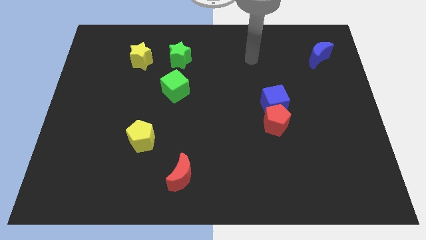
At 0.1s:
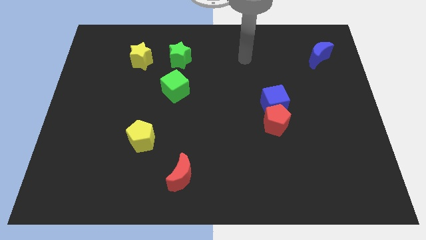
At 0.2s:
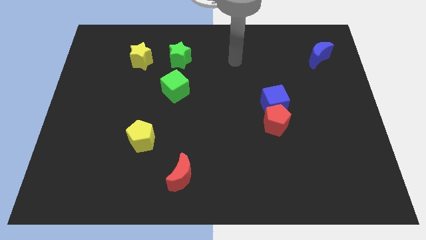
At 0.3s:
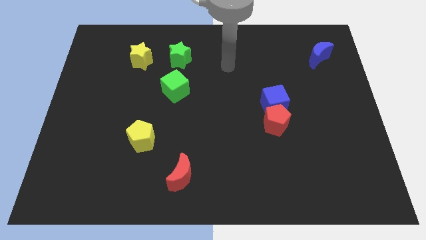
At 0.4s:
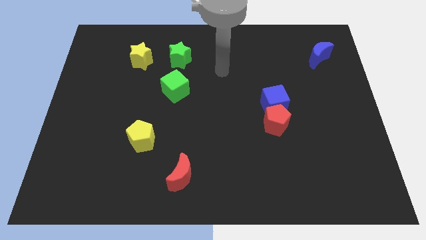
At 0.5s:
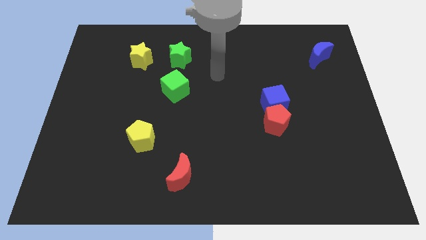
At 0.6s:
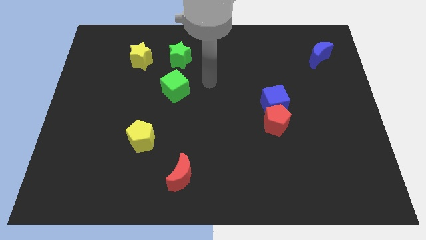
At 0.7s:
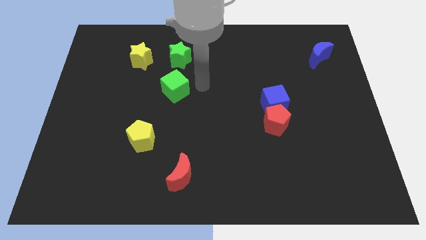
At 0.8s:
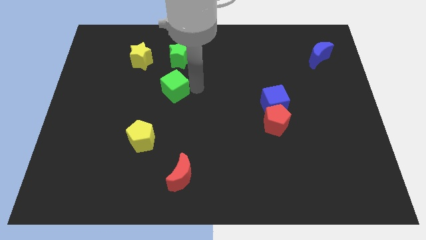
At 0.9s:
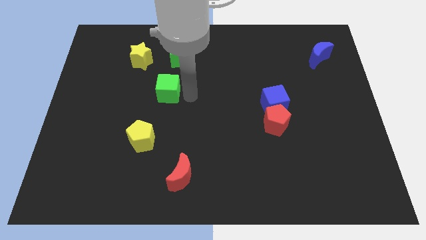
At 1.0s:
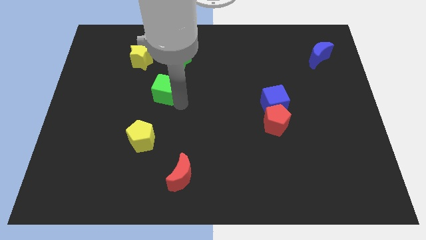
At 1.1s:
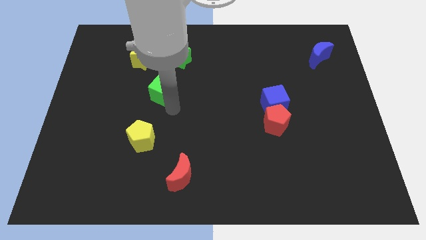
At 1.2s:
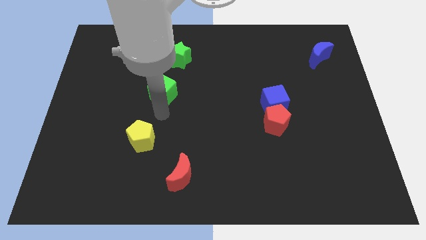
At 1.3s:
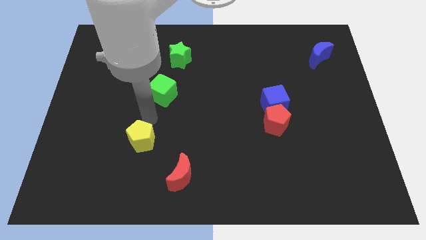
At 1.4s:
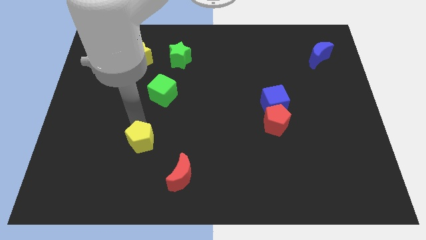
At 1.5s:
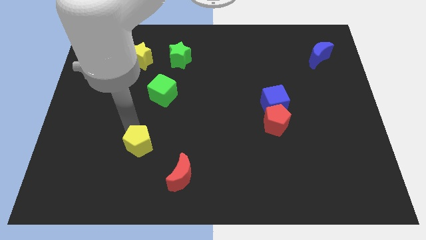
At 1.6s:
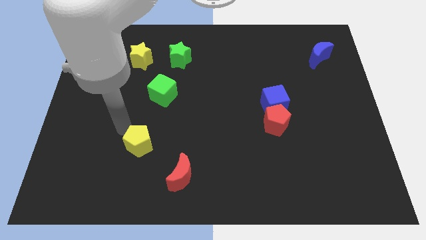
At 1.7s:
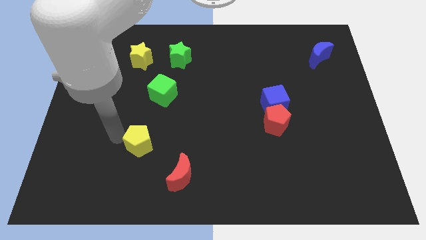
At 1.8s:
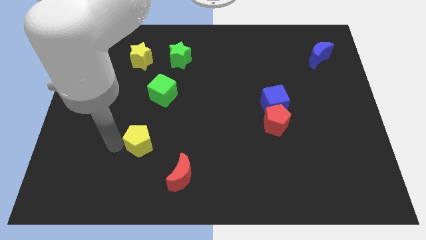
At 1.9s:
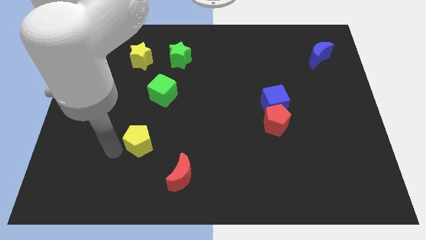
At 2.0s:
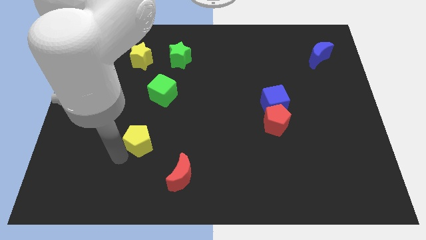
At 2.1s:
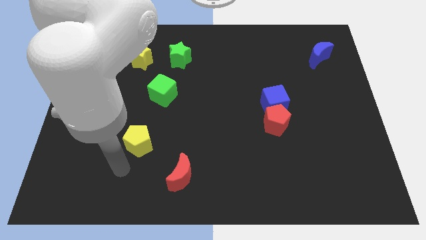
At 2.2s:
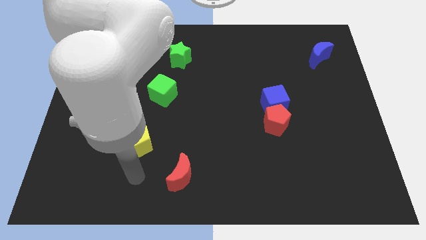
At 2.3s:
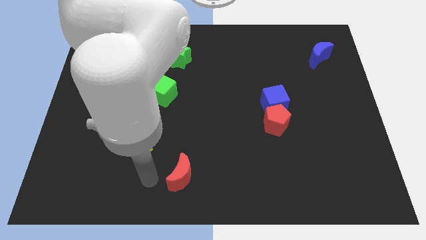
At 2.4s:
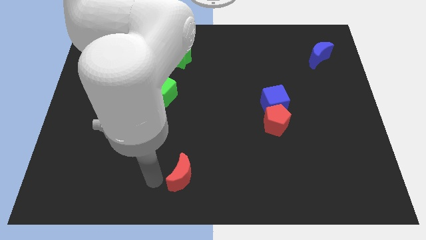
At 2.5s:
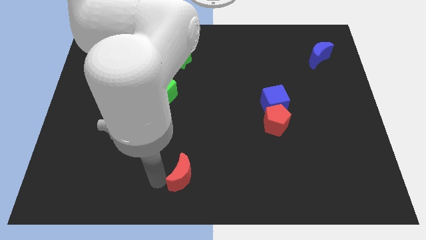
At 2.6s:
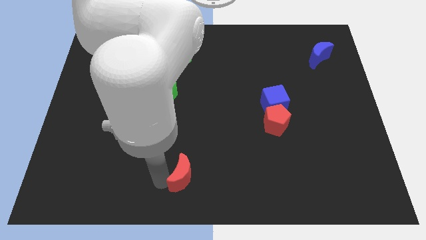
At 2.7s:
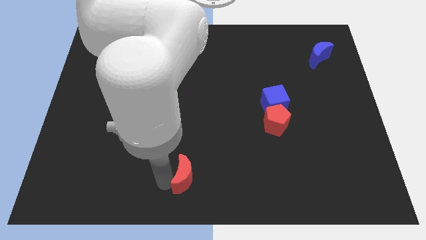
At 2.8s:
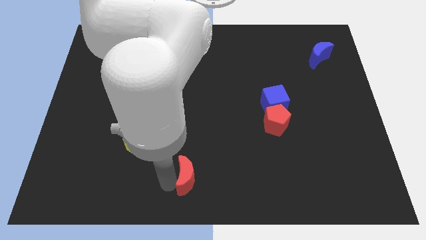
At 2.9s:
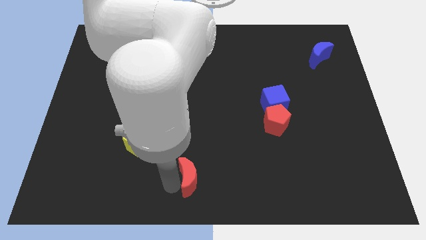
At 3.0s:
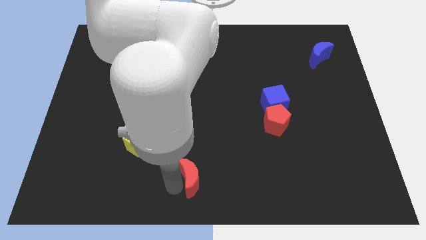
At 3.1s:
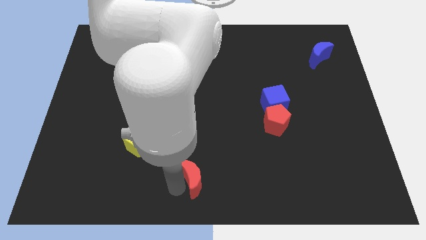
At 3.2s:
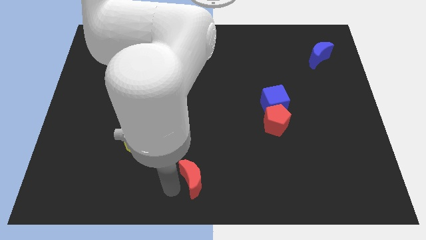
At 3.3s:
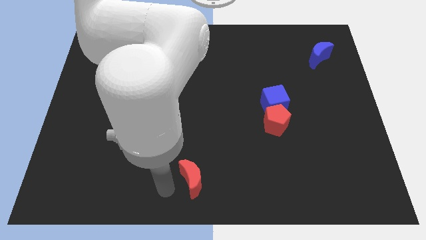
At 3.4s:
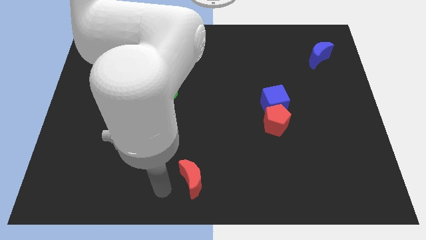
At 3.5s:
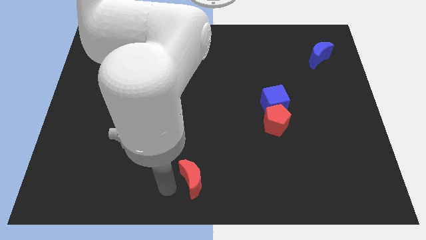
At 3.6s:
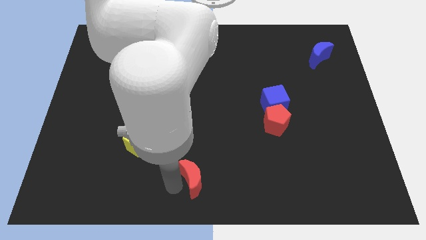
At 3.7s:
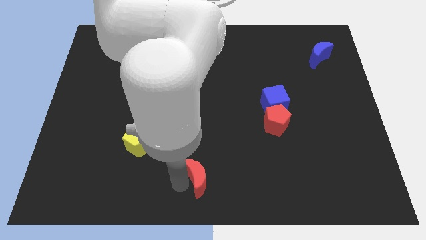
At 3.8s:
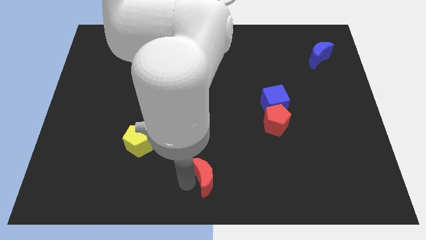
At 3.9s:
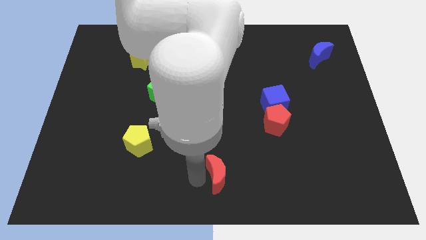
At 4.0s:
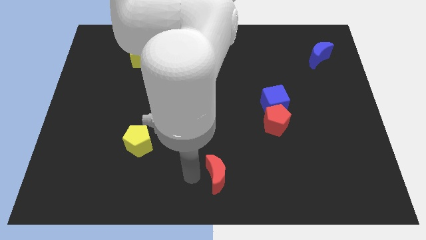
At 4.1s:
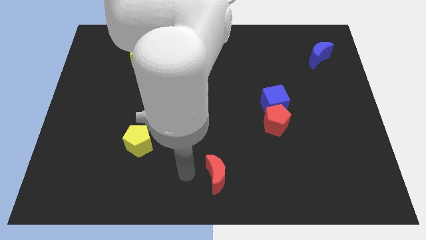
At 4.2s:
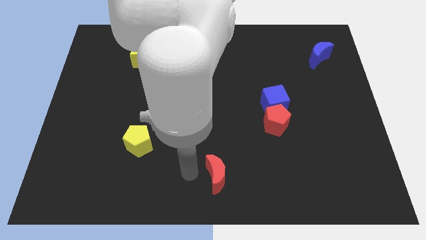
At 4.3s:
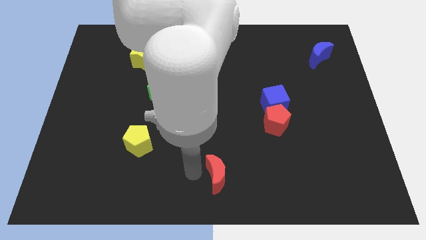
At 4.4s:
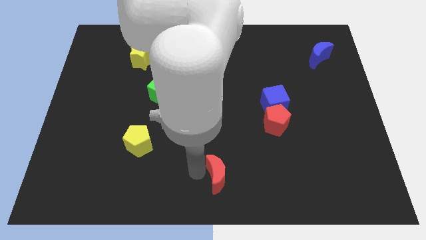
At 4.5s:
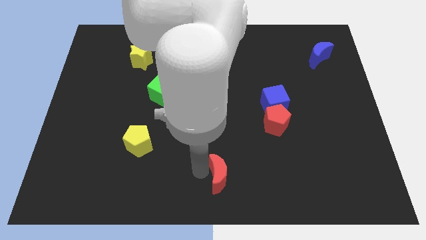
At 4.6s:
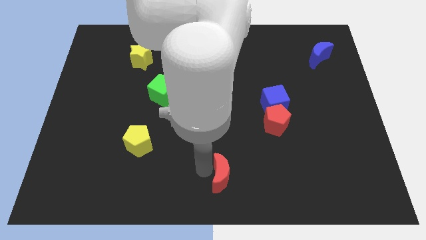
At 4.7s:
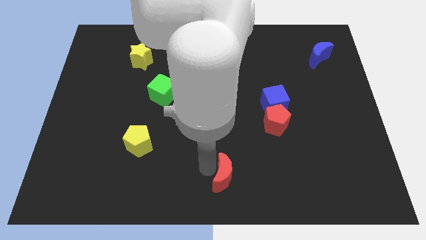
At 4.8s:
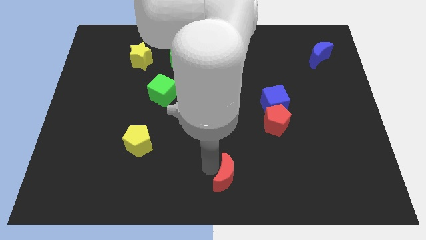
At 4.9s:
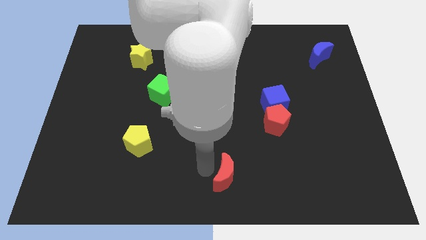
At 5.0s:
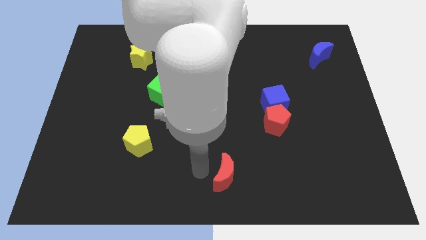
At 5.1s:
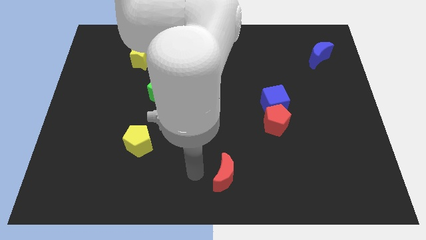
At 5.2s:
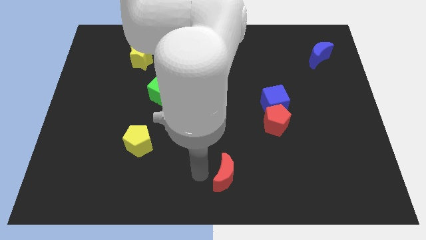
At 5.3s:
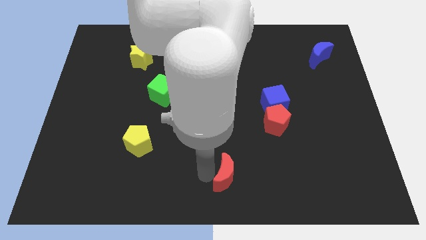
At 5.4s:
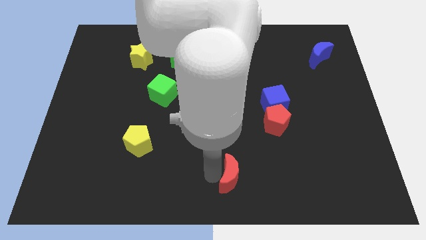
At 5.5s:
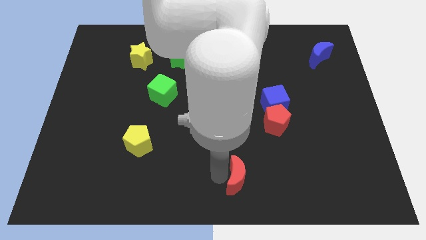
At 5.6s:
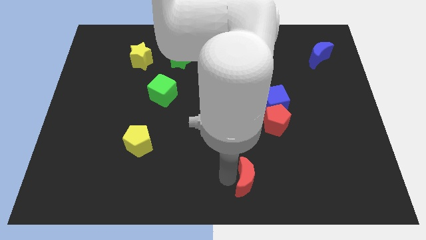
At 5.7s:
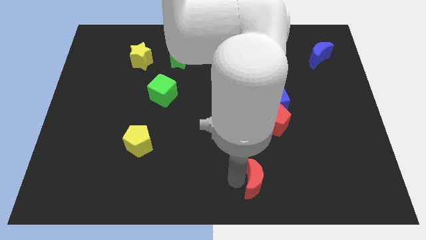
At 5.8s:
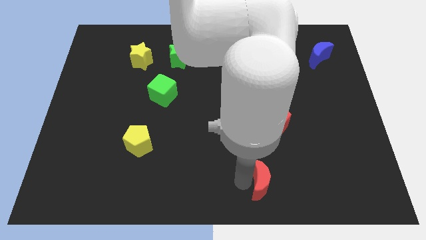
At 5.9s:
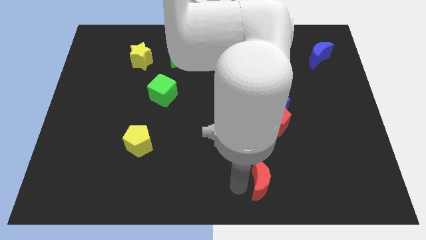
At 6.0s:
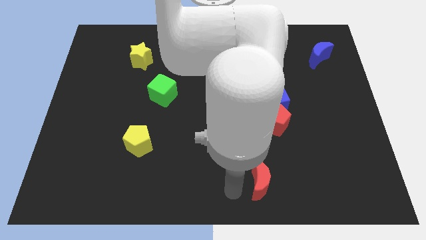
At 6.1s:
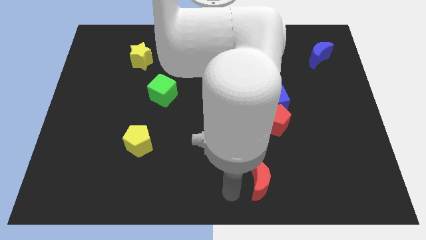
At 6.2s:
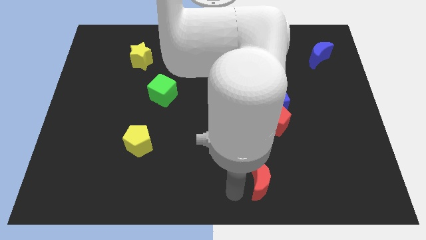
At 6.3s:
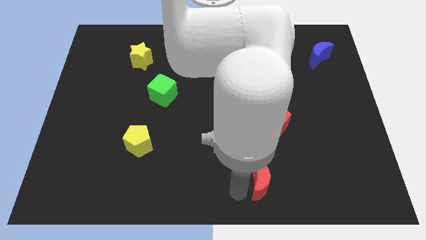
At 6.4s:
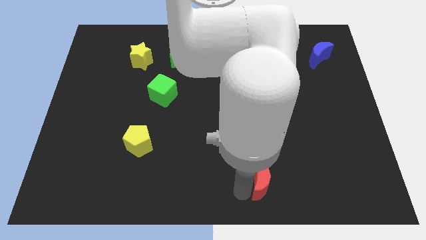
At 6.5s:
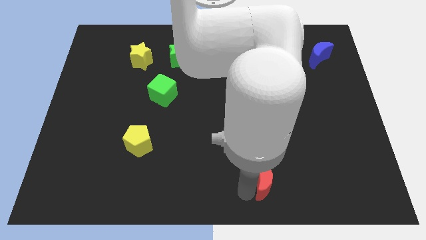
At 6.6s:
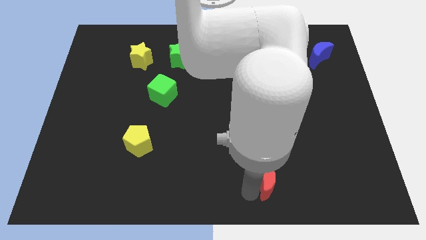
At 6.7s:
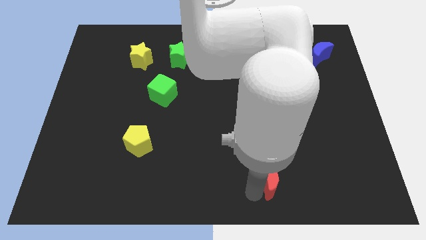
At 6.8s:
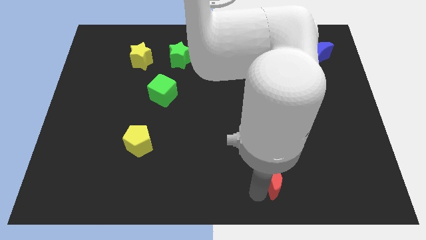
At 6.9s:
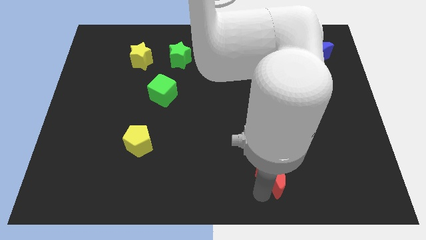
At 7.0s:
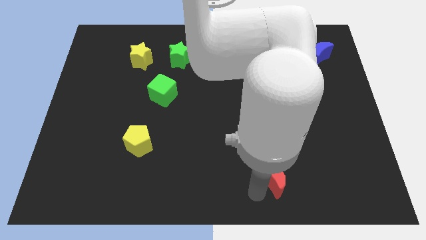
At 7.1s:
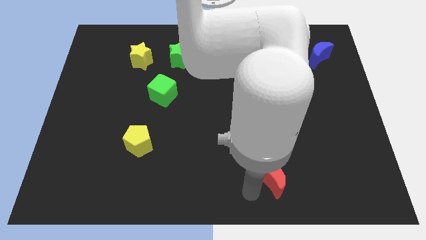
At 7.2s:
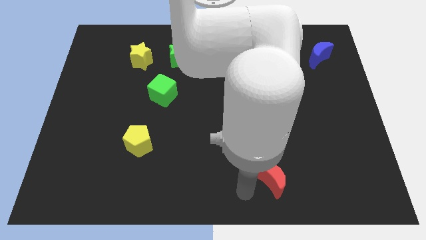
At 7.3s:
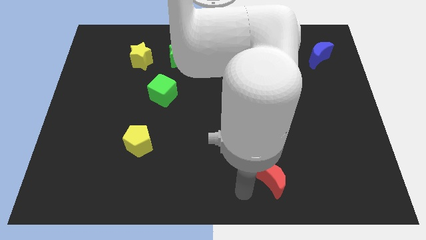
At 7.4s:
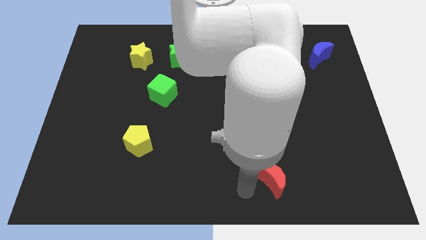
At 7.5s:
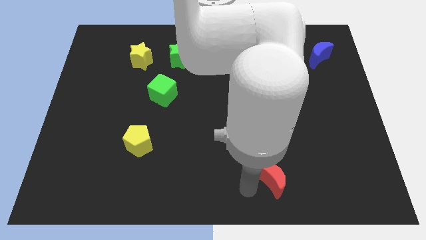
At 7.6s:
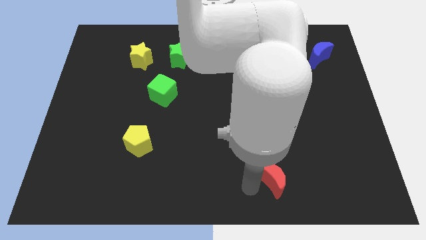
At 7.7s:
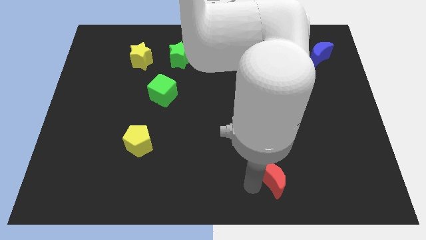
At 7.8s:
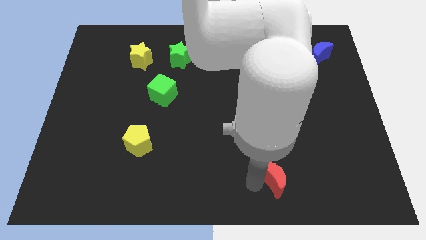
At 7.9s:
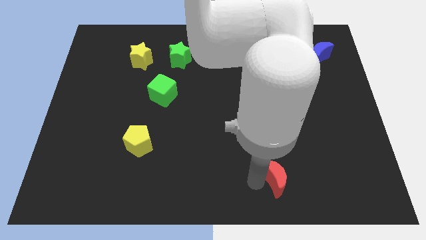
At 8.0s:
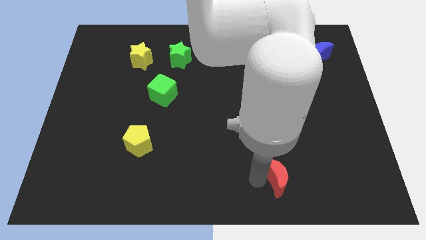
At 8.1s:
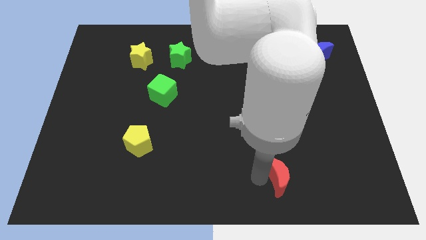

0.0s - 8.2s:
push the red moon to the right
